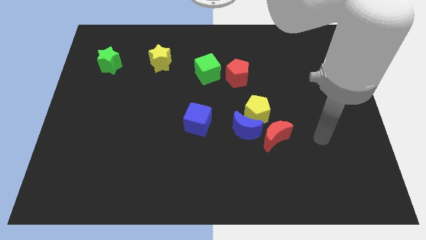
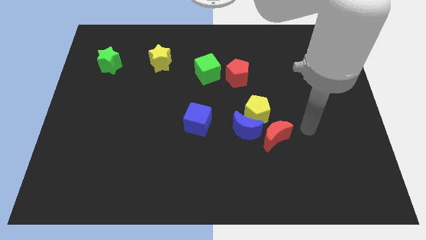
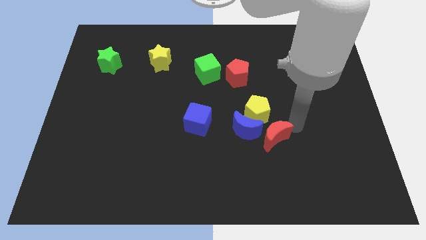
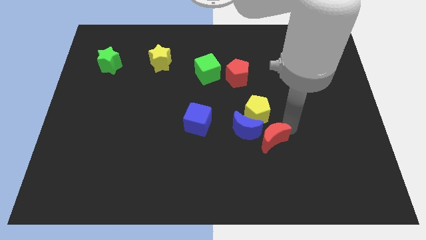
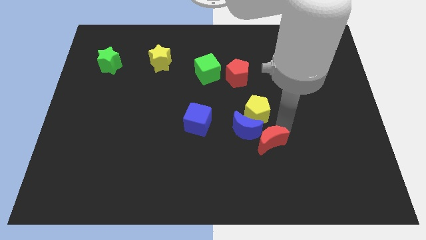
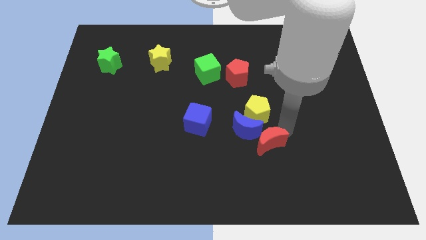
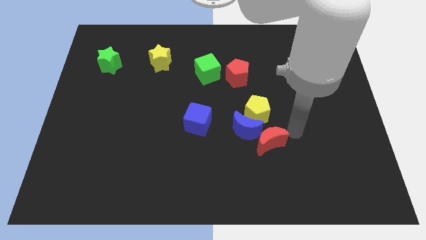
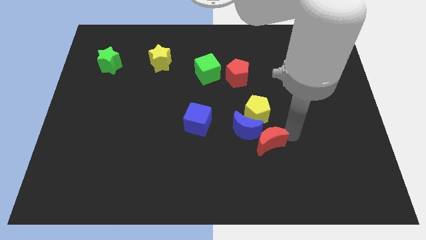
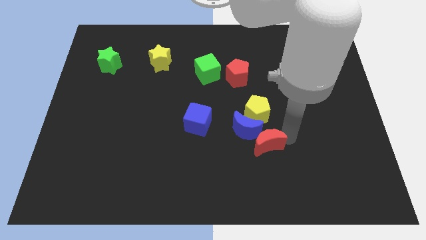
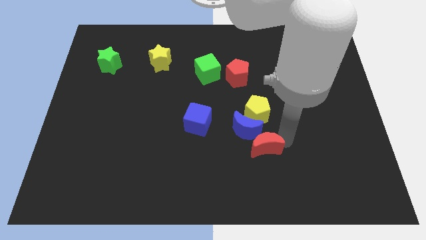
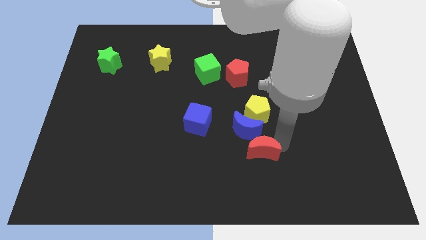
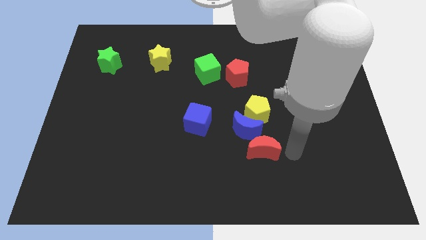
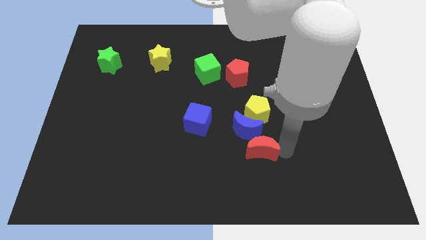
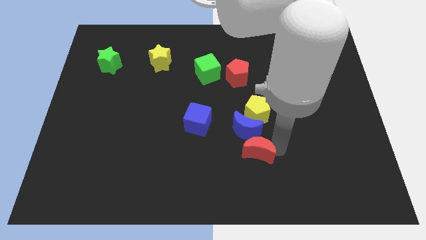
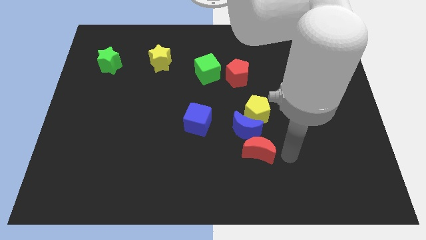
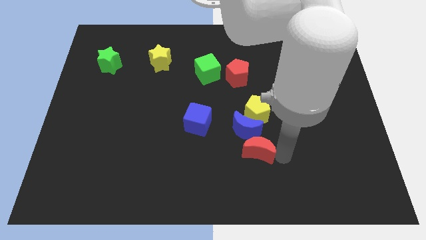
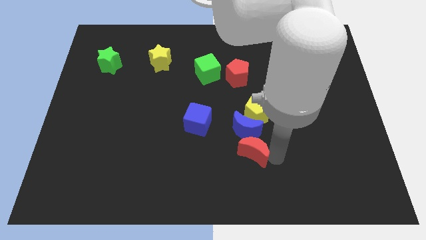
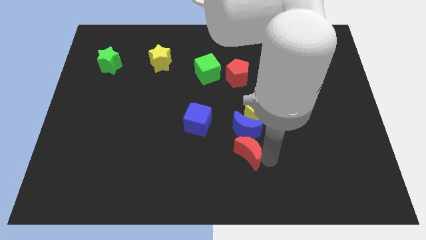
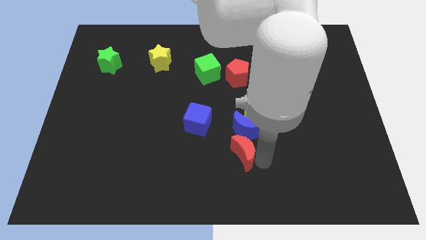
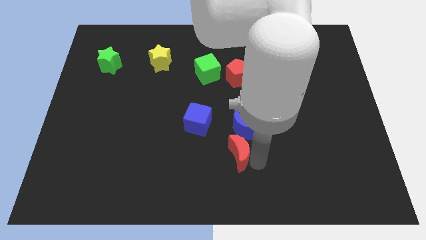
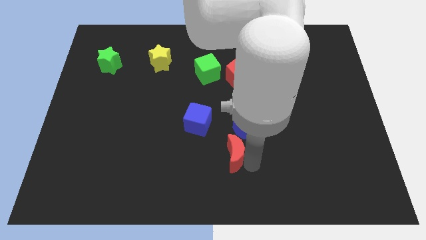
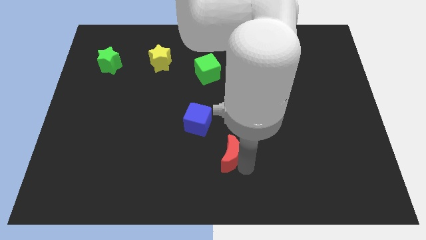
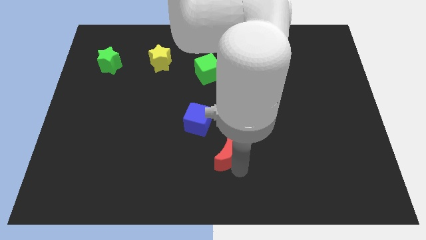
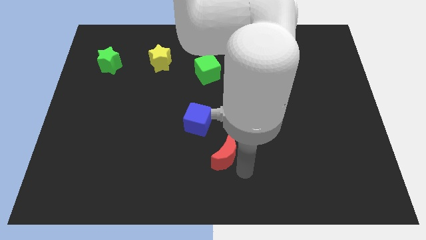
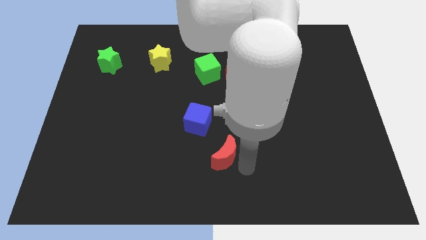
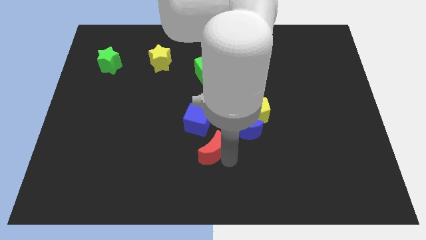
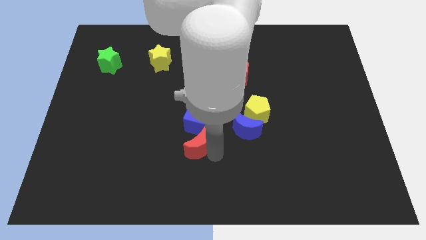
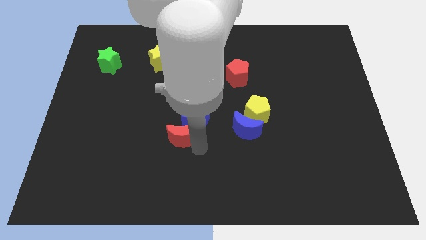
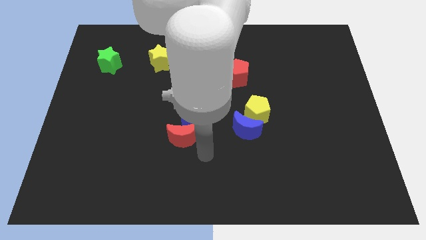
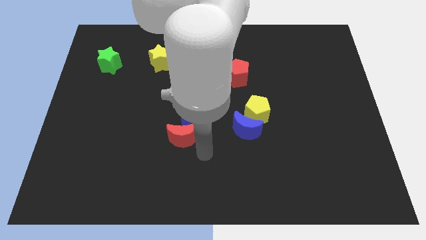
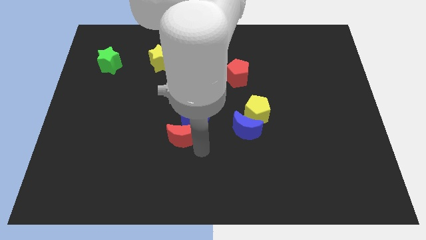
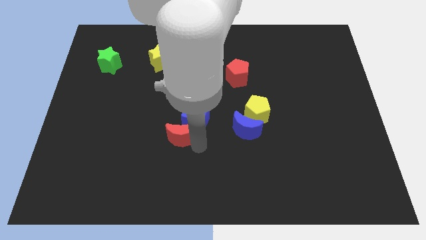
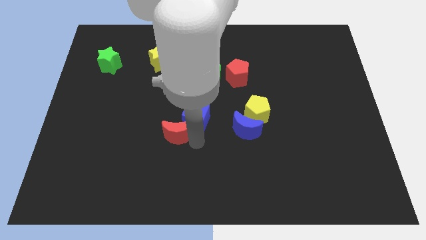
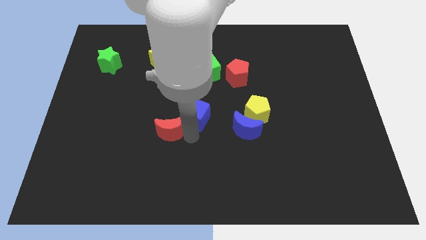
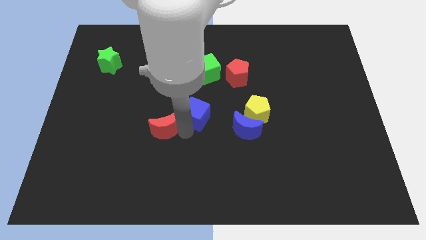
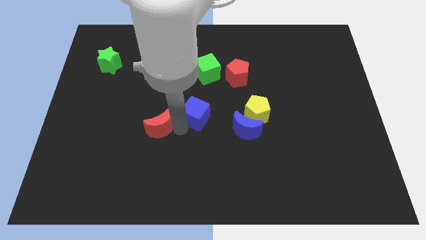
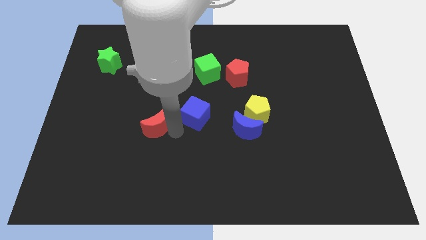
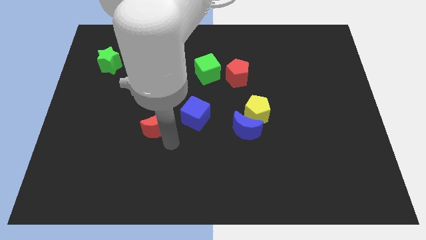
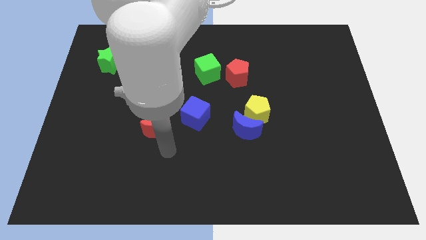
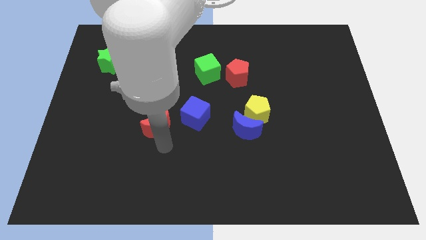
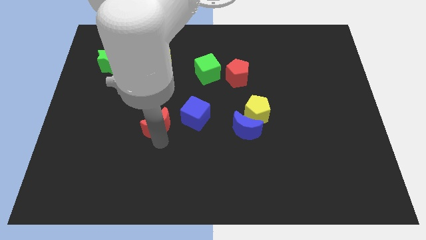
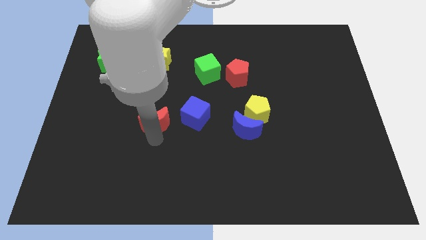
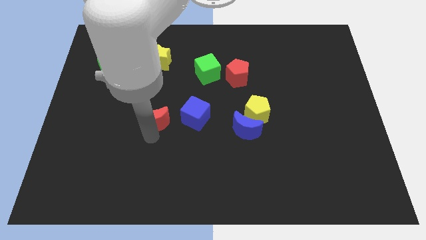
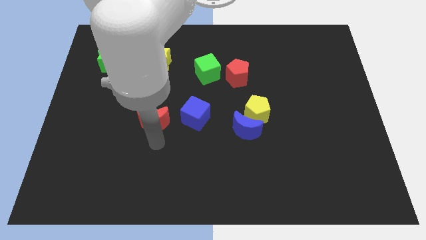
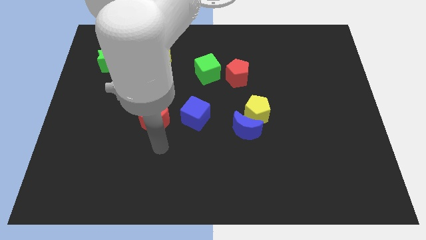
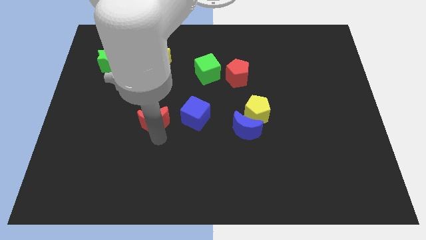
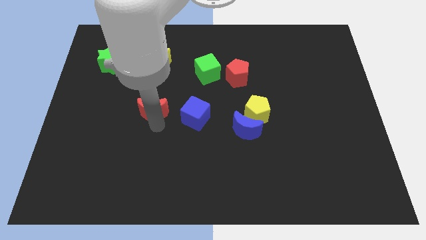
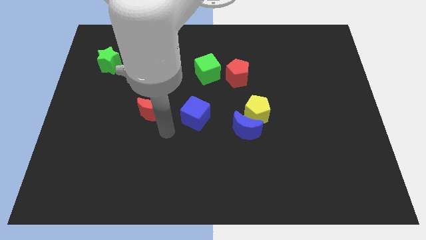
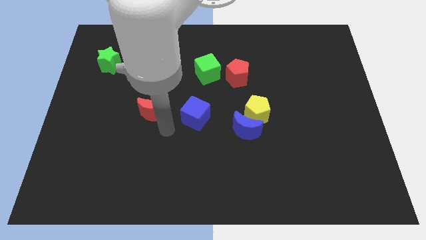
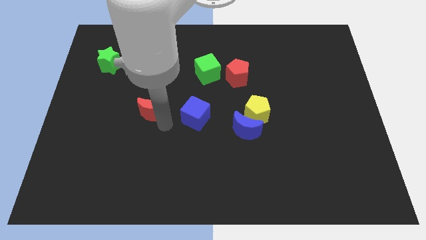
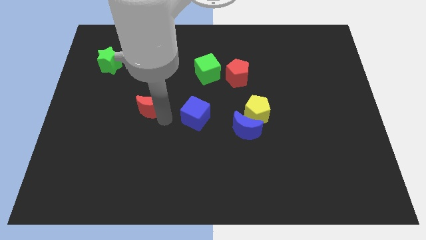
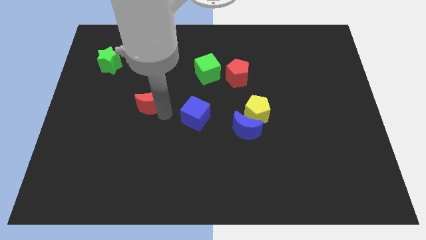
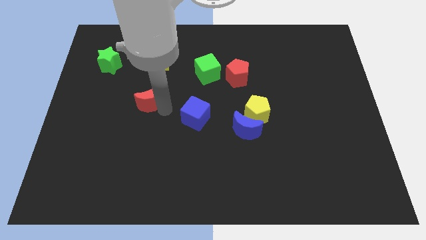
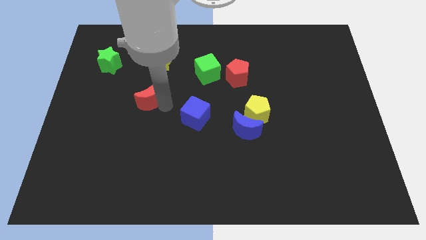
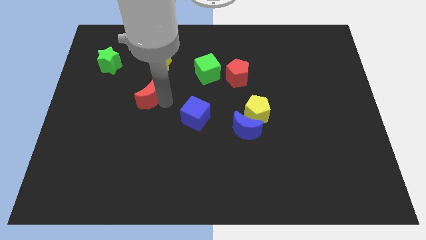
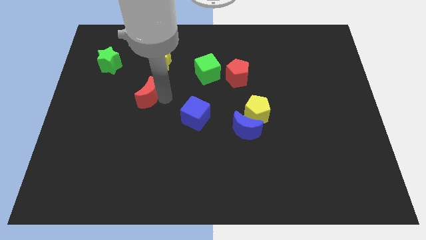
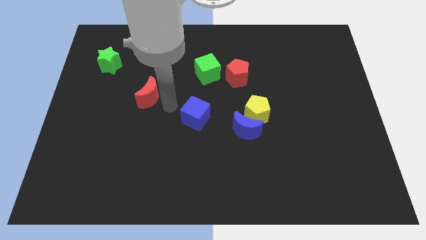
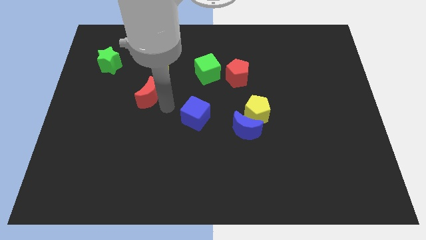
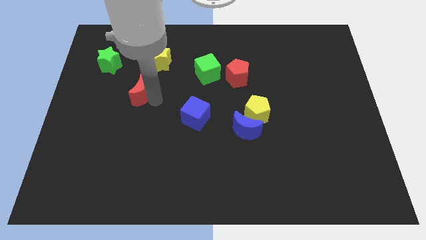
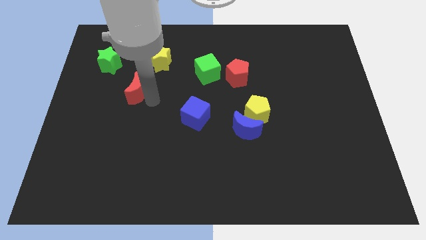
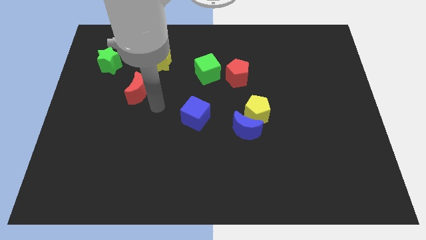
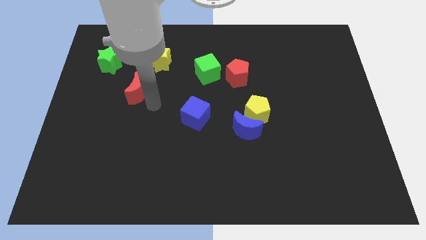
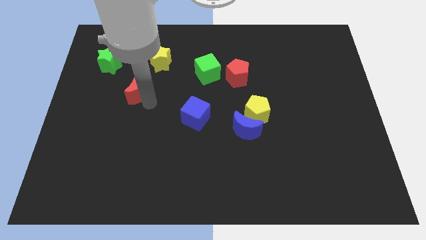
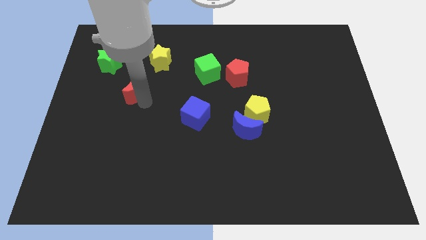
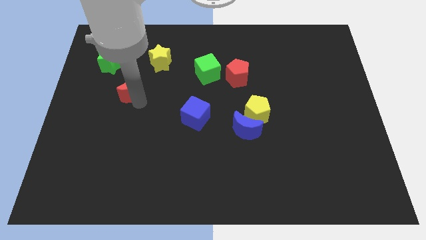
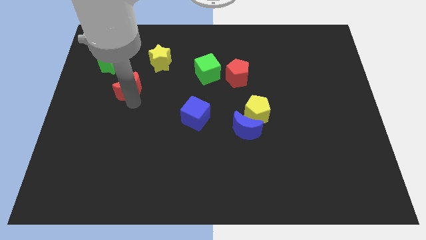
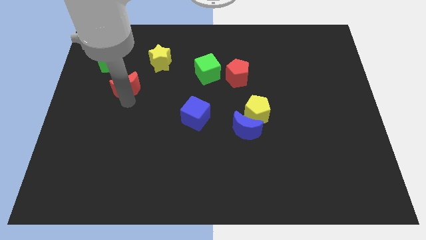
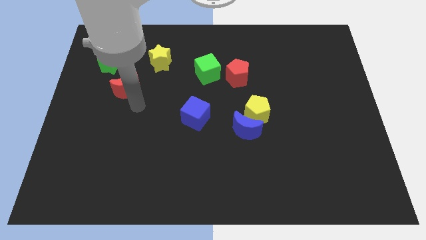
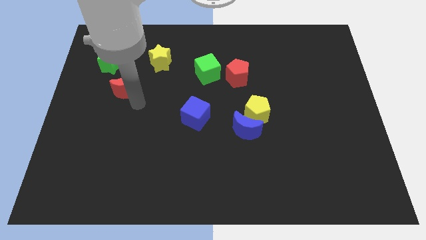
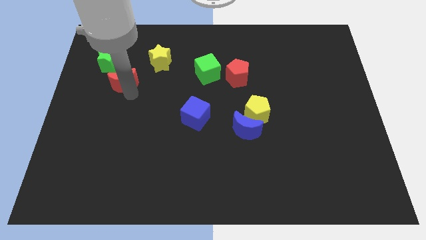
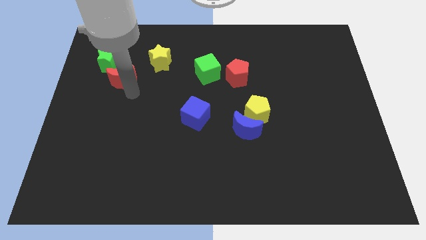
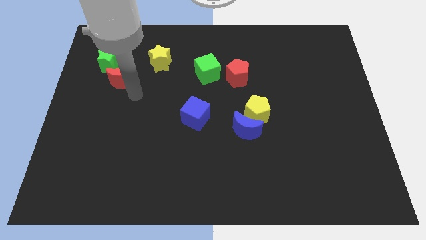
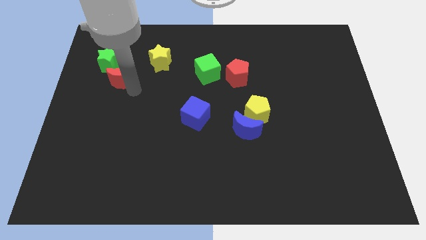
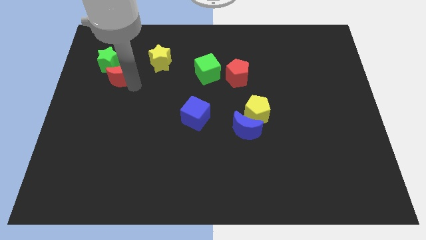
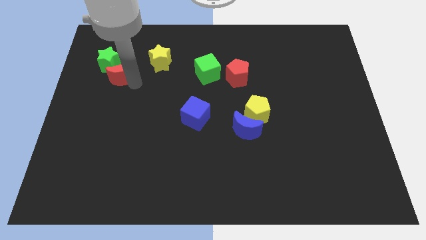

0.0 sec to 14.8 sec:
put the red moon next to the green star
